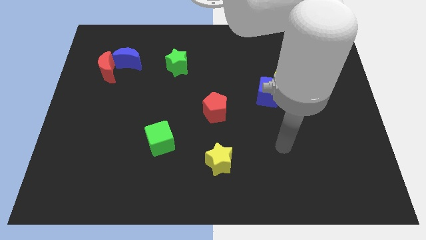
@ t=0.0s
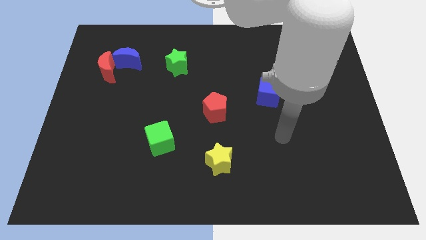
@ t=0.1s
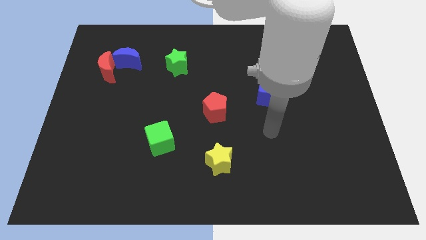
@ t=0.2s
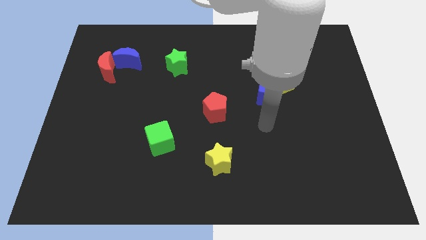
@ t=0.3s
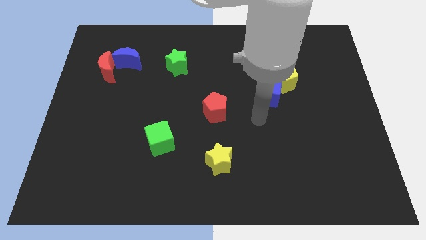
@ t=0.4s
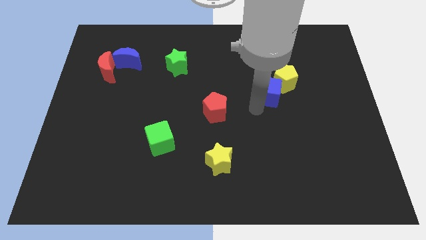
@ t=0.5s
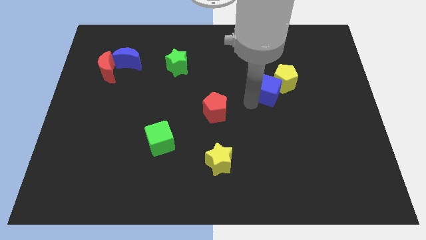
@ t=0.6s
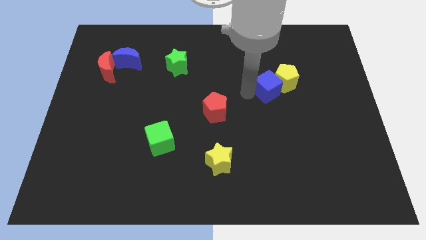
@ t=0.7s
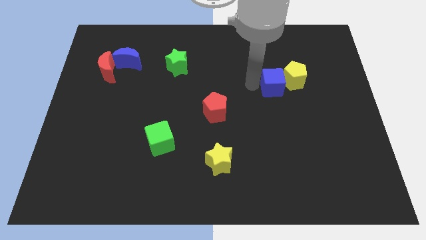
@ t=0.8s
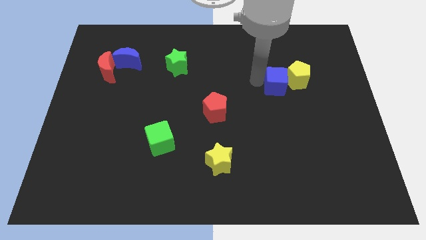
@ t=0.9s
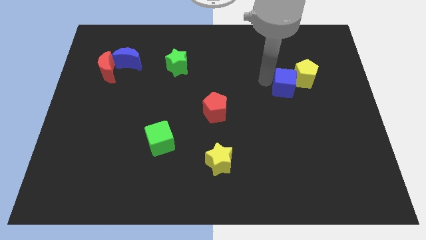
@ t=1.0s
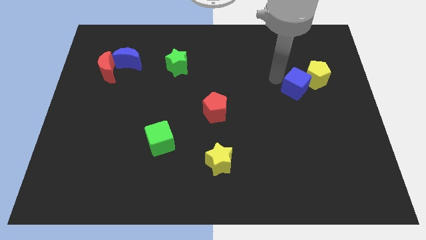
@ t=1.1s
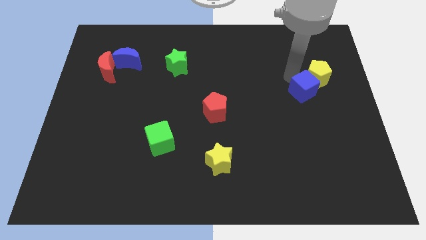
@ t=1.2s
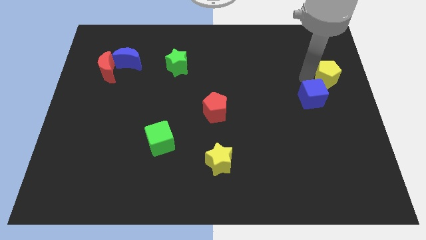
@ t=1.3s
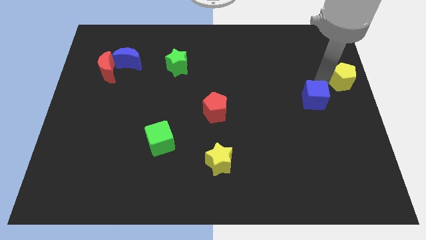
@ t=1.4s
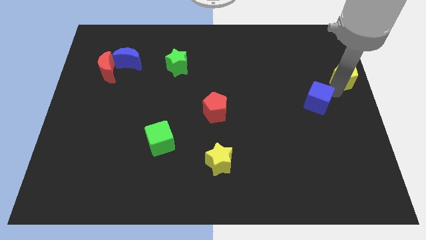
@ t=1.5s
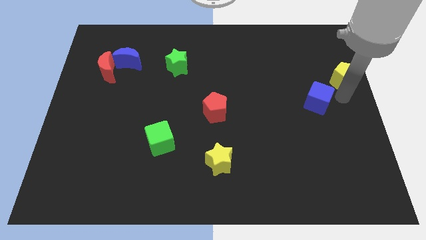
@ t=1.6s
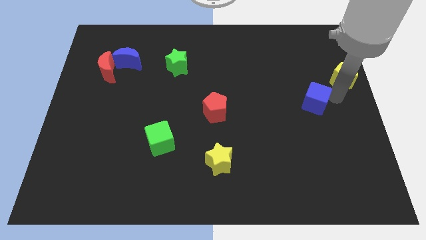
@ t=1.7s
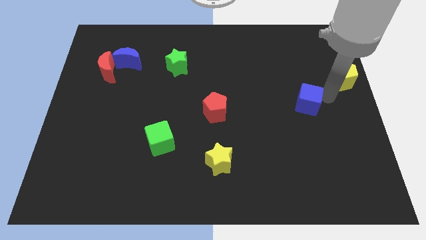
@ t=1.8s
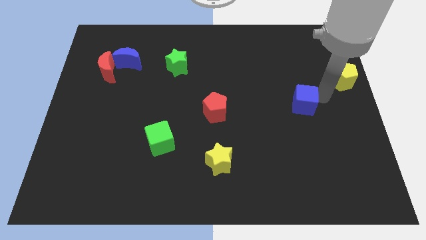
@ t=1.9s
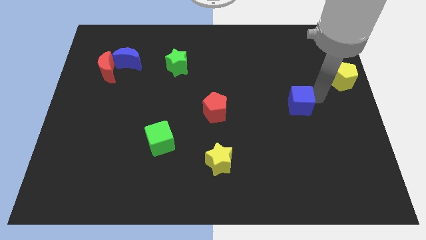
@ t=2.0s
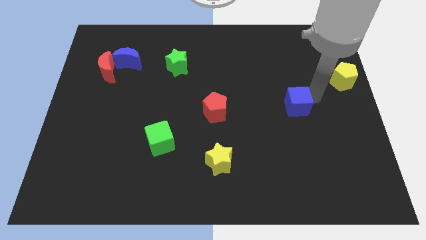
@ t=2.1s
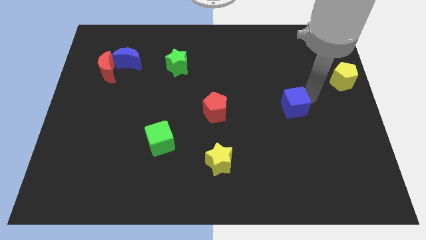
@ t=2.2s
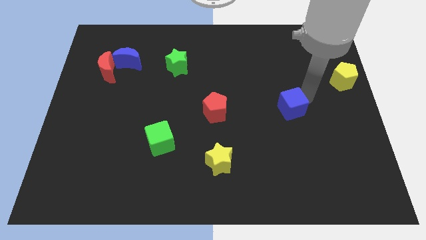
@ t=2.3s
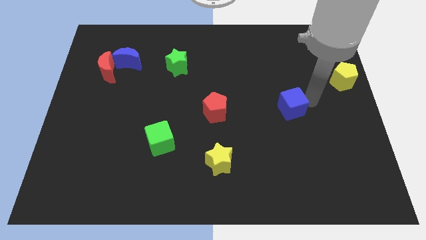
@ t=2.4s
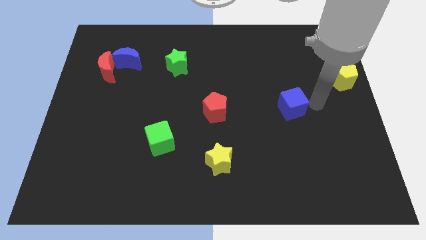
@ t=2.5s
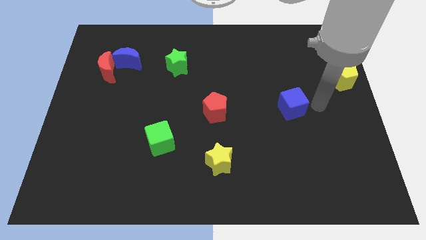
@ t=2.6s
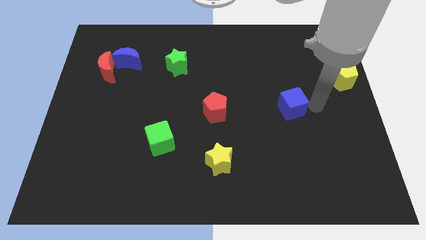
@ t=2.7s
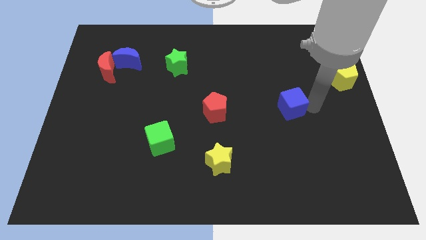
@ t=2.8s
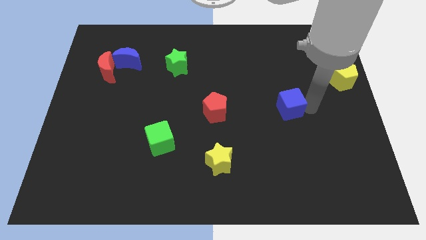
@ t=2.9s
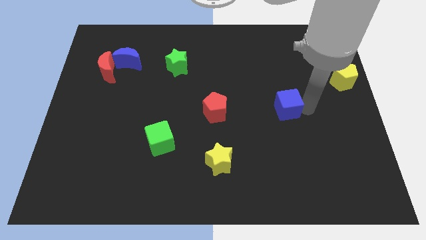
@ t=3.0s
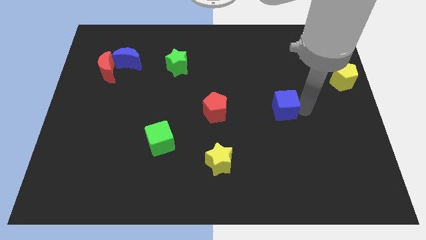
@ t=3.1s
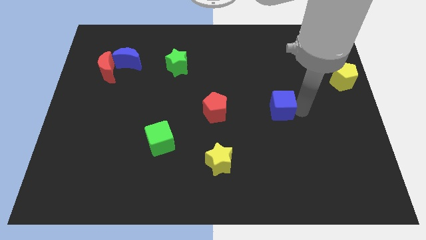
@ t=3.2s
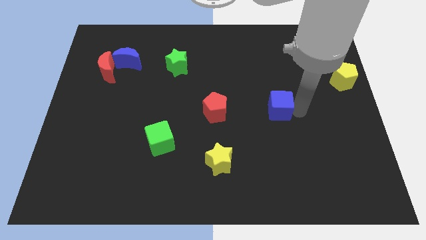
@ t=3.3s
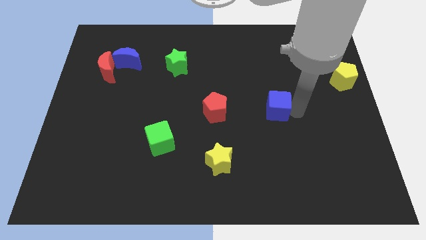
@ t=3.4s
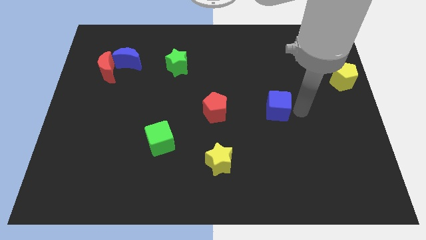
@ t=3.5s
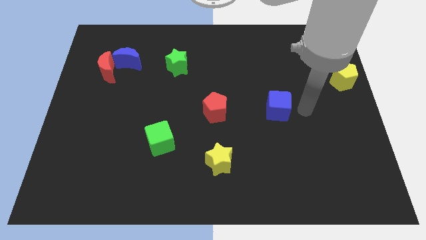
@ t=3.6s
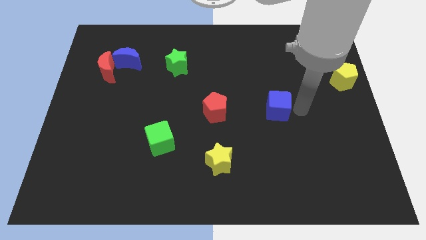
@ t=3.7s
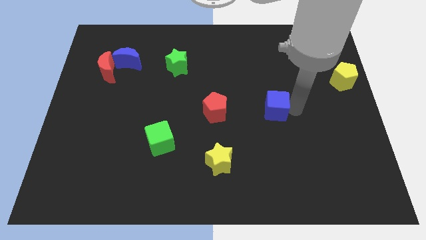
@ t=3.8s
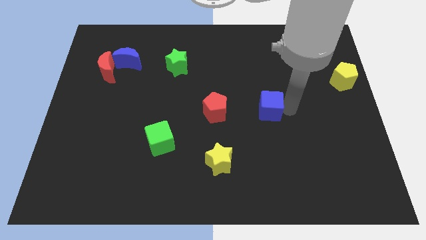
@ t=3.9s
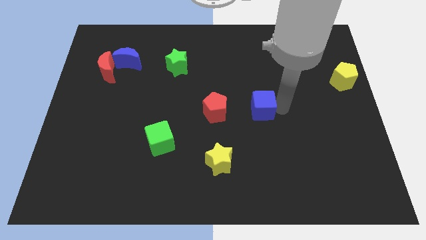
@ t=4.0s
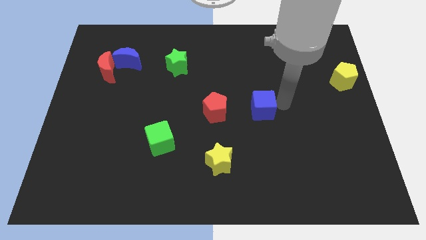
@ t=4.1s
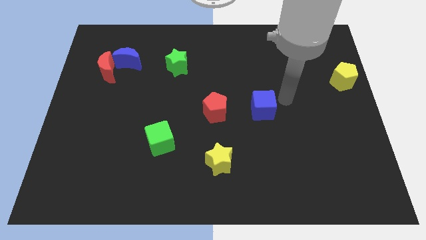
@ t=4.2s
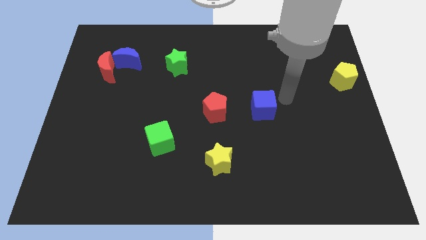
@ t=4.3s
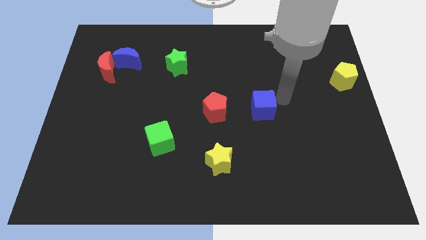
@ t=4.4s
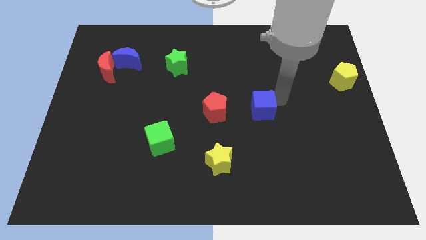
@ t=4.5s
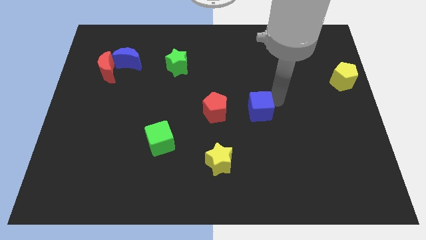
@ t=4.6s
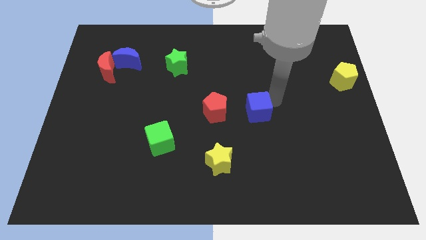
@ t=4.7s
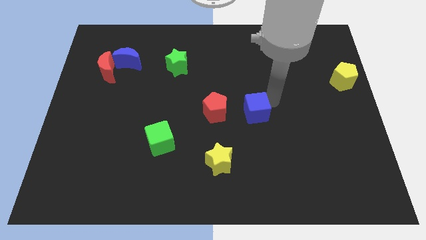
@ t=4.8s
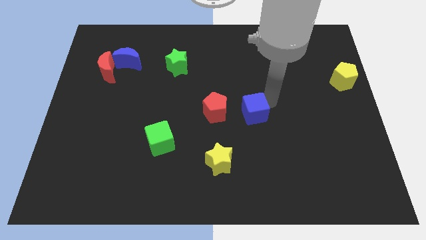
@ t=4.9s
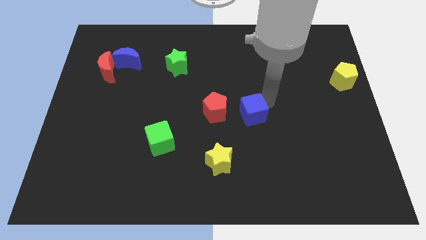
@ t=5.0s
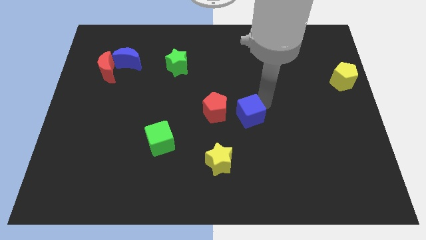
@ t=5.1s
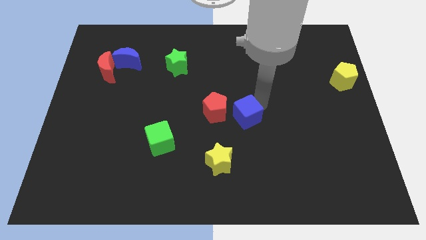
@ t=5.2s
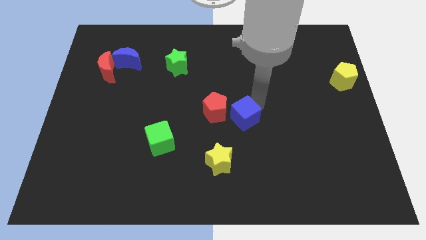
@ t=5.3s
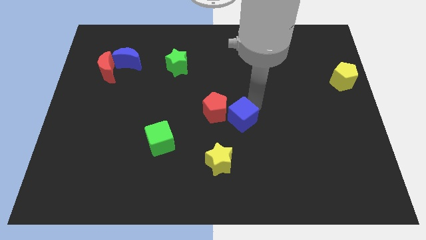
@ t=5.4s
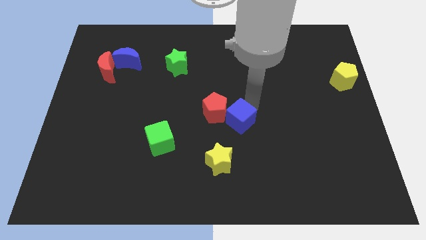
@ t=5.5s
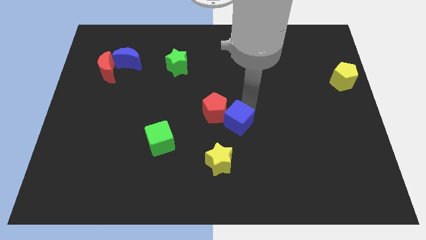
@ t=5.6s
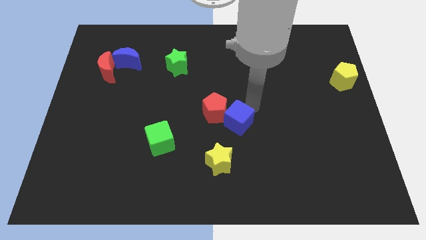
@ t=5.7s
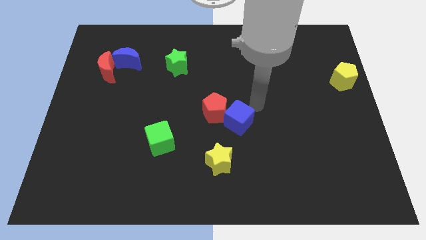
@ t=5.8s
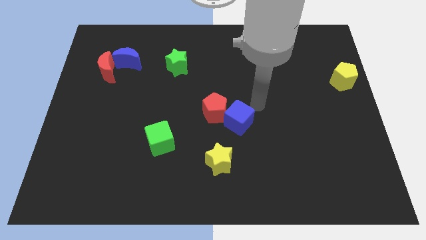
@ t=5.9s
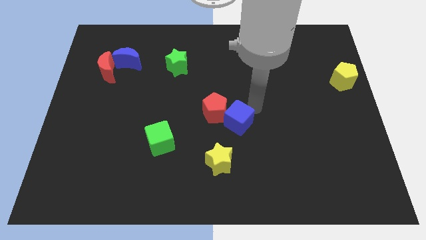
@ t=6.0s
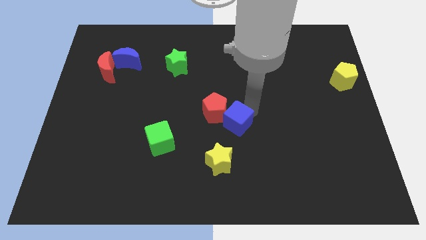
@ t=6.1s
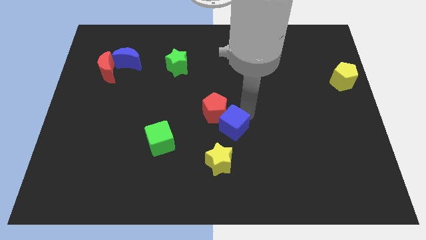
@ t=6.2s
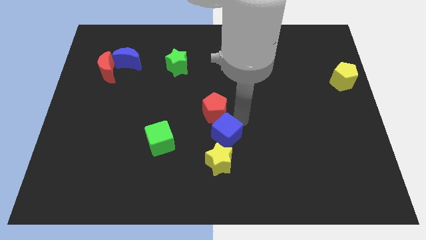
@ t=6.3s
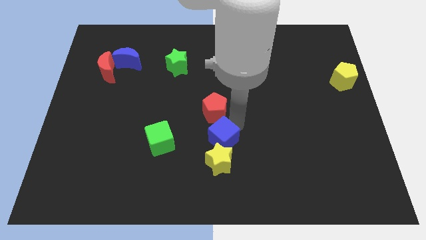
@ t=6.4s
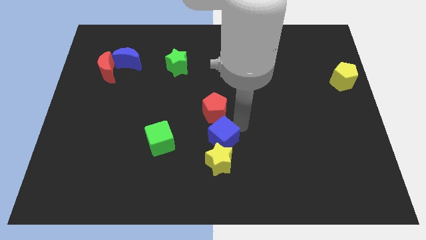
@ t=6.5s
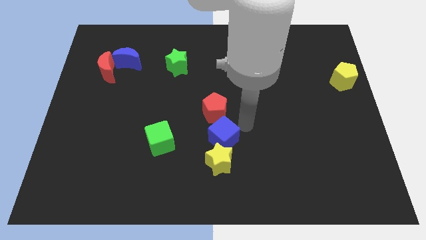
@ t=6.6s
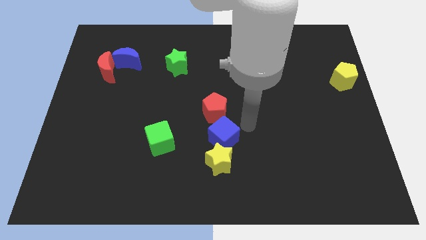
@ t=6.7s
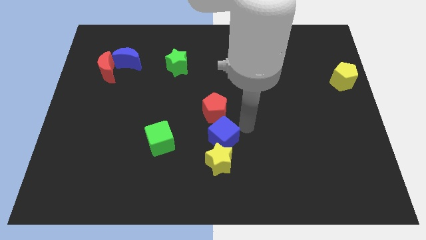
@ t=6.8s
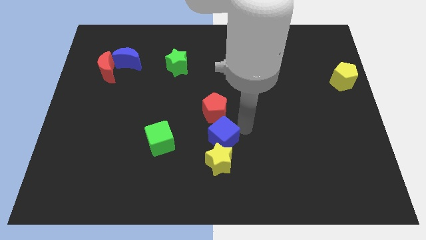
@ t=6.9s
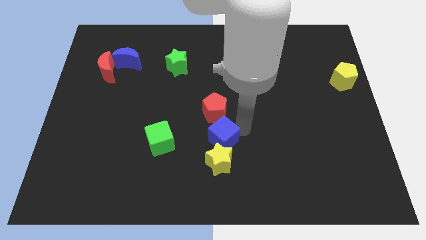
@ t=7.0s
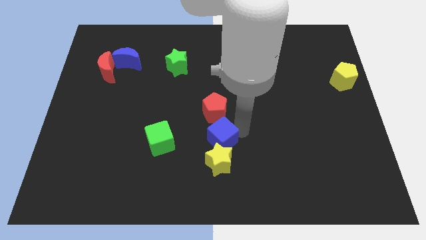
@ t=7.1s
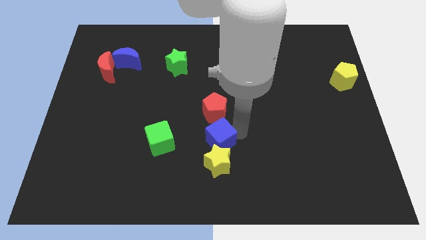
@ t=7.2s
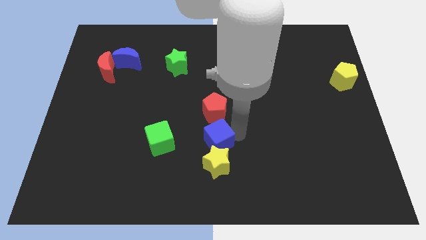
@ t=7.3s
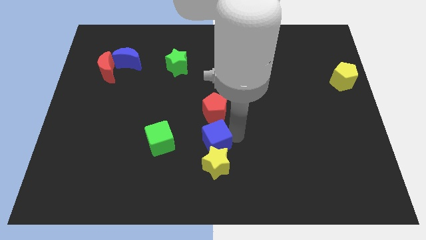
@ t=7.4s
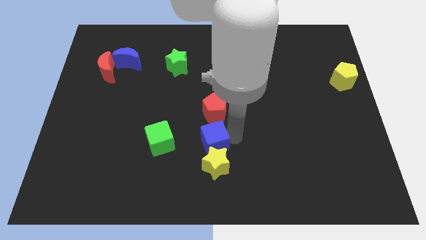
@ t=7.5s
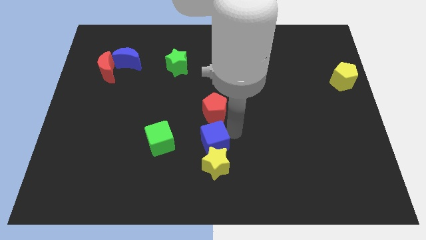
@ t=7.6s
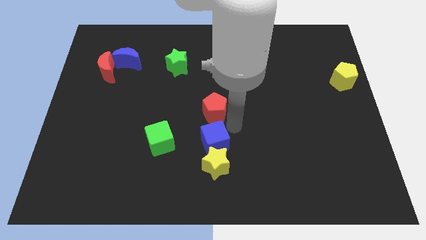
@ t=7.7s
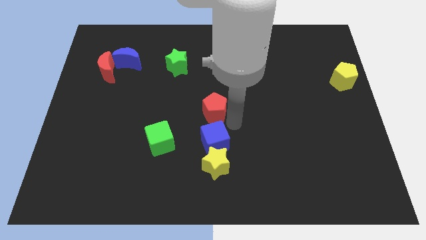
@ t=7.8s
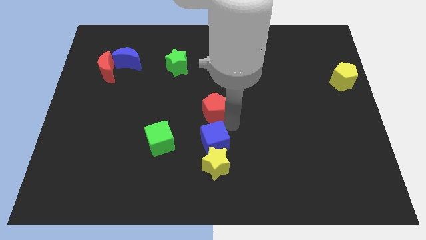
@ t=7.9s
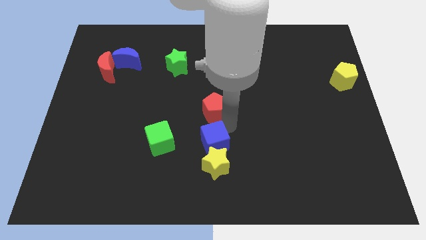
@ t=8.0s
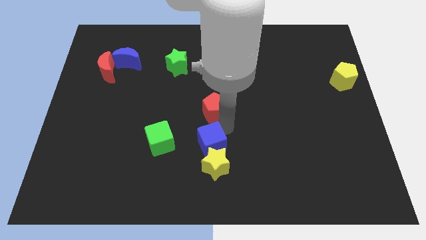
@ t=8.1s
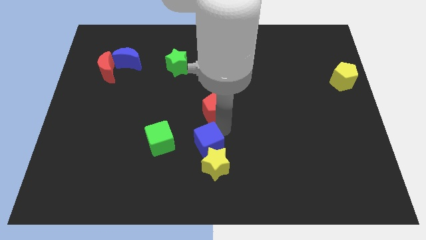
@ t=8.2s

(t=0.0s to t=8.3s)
move the blue cube downwards and to the left diagonally
